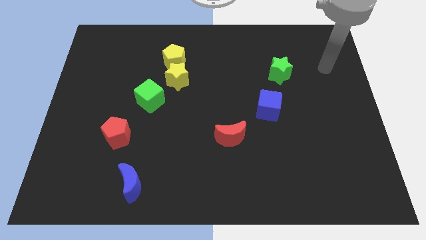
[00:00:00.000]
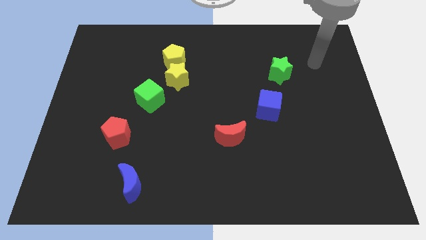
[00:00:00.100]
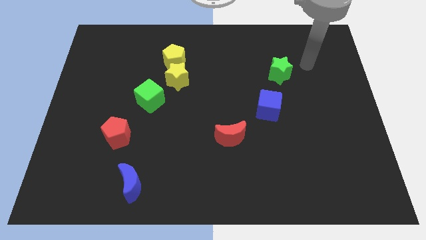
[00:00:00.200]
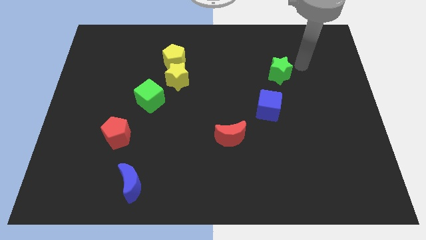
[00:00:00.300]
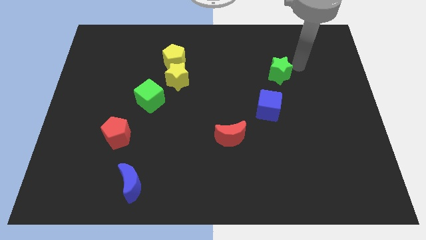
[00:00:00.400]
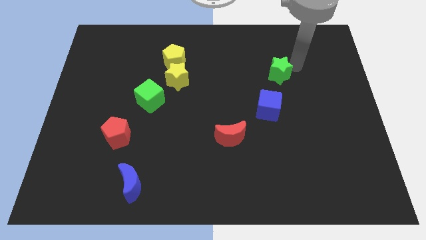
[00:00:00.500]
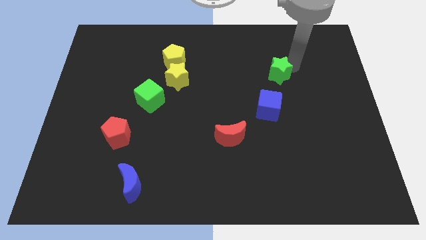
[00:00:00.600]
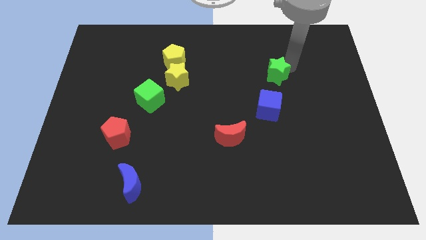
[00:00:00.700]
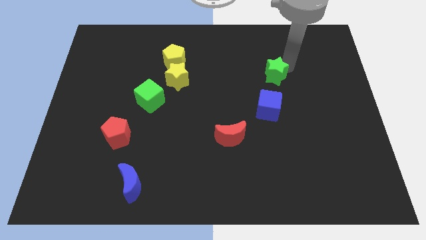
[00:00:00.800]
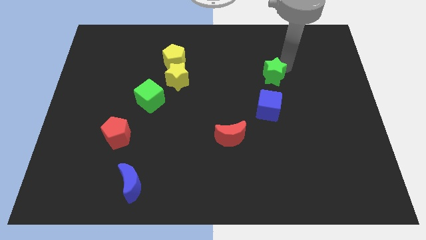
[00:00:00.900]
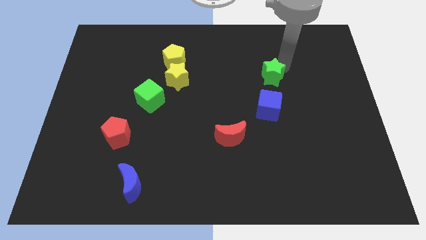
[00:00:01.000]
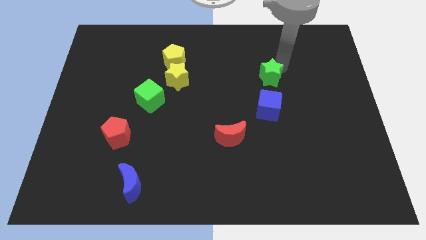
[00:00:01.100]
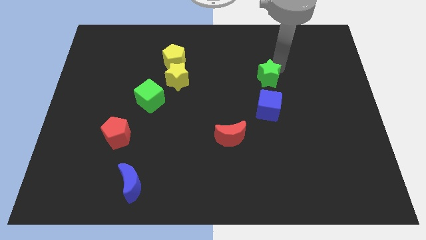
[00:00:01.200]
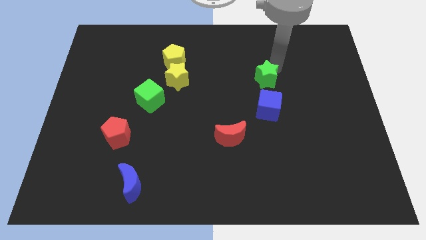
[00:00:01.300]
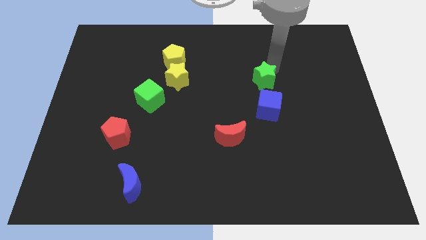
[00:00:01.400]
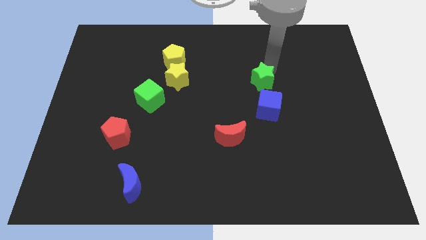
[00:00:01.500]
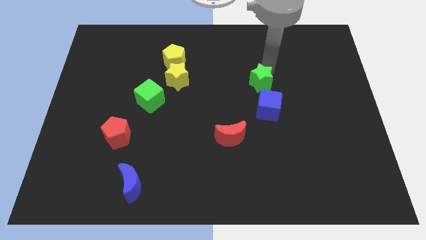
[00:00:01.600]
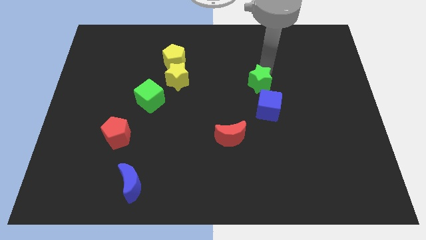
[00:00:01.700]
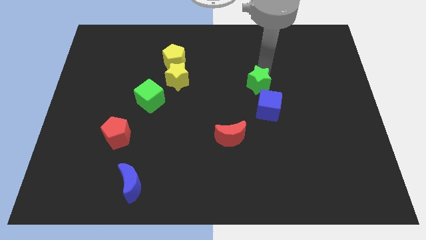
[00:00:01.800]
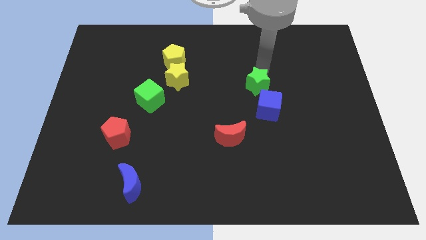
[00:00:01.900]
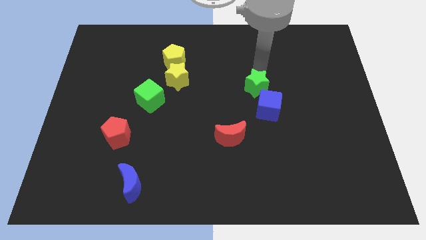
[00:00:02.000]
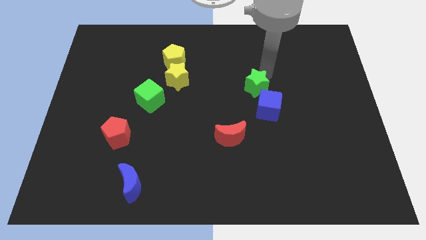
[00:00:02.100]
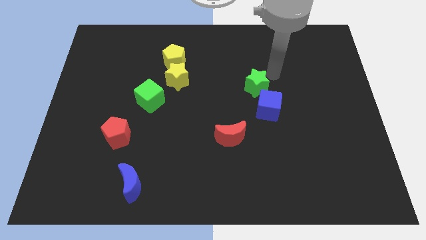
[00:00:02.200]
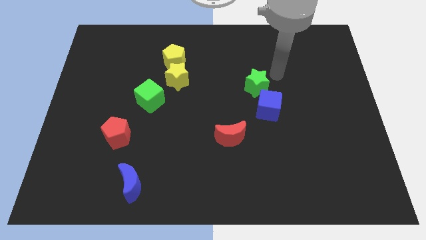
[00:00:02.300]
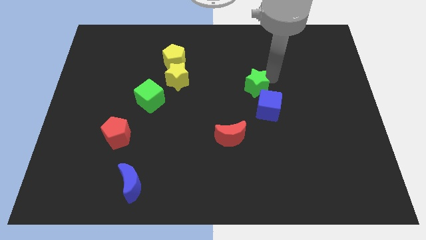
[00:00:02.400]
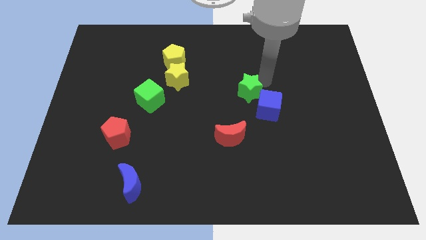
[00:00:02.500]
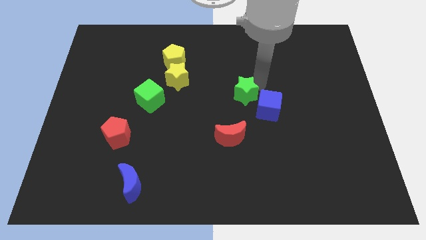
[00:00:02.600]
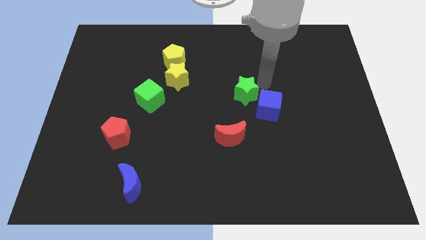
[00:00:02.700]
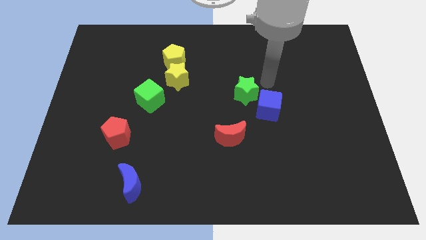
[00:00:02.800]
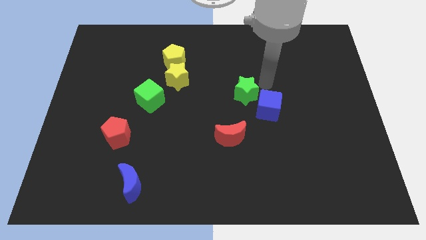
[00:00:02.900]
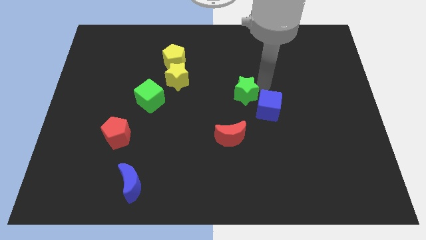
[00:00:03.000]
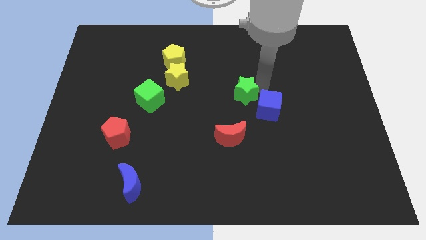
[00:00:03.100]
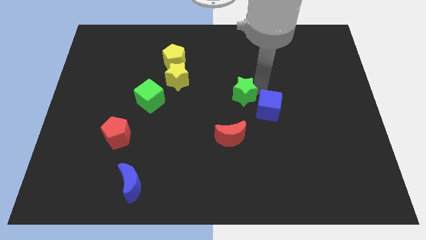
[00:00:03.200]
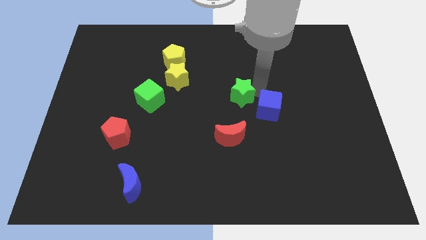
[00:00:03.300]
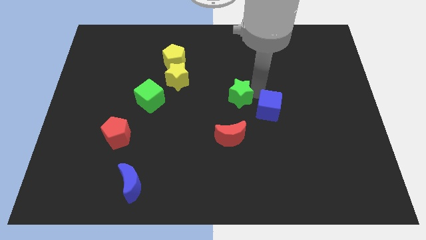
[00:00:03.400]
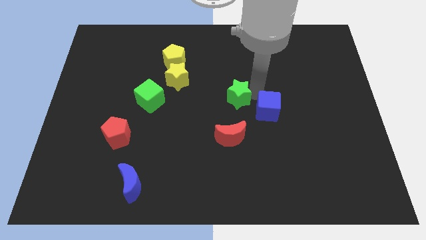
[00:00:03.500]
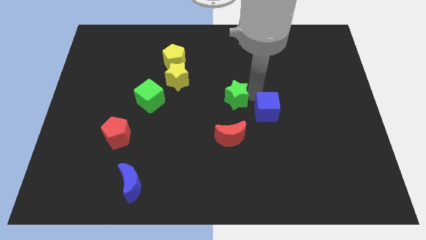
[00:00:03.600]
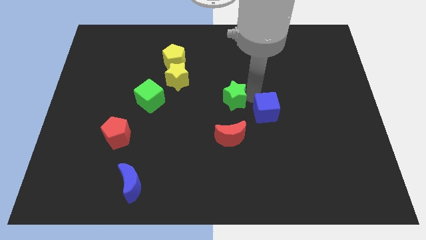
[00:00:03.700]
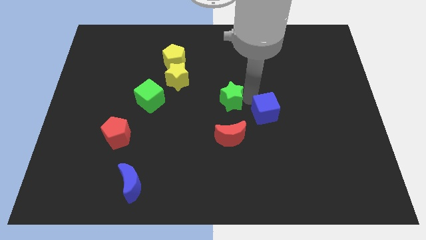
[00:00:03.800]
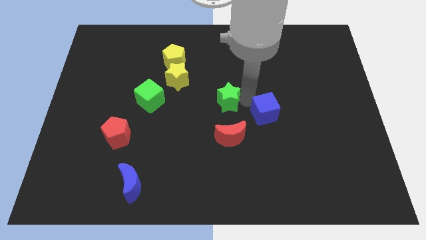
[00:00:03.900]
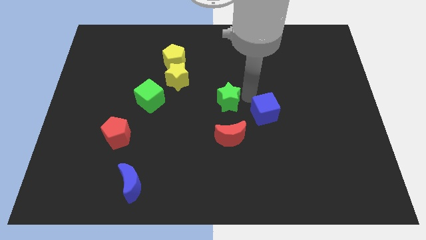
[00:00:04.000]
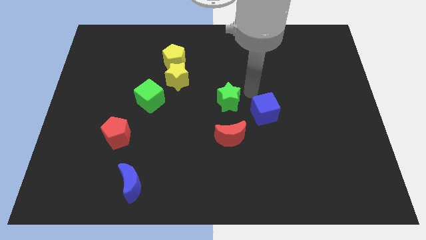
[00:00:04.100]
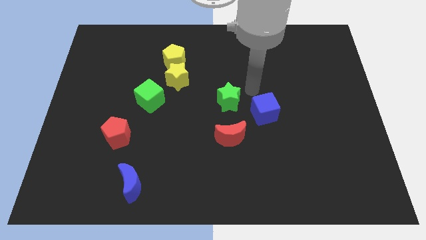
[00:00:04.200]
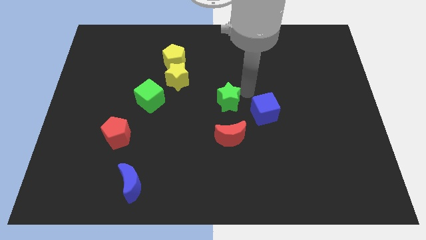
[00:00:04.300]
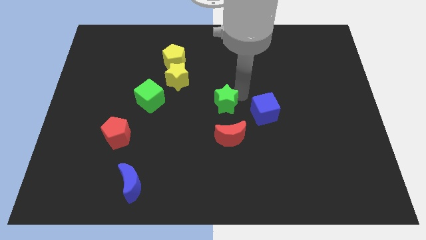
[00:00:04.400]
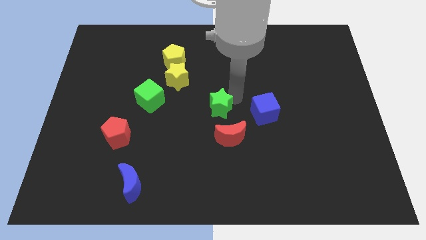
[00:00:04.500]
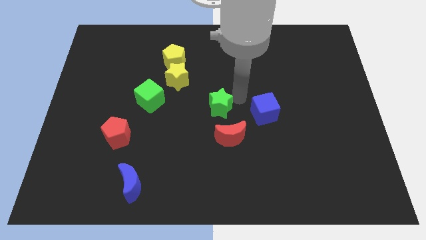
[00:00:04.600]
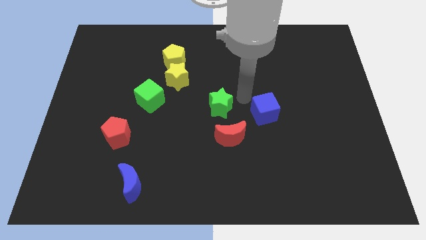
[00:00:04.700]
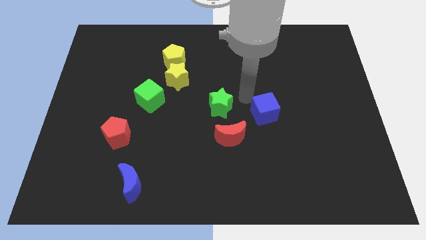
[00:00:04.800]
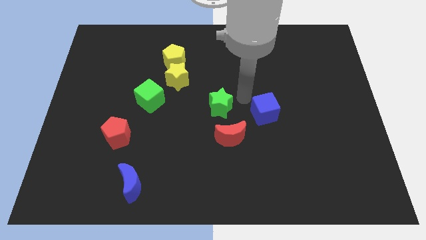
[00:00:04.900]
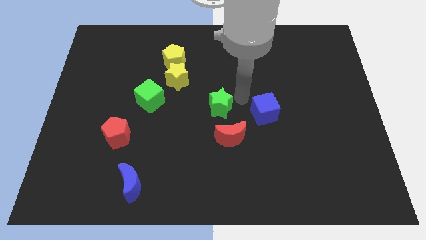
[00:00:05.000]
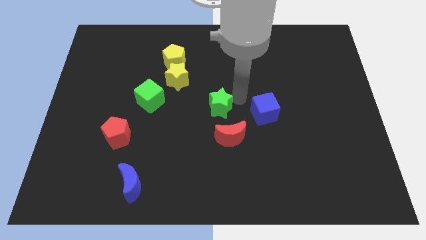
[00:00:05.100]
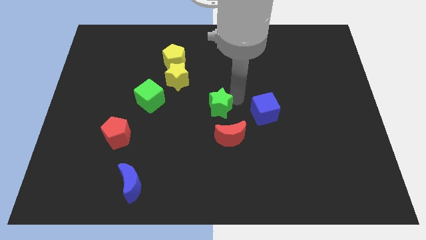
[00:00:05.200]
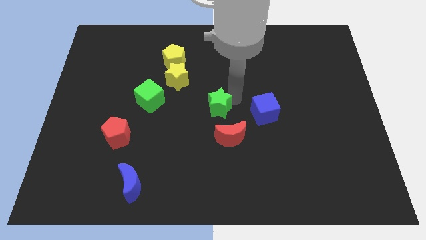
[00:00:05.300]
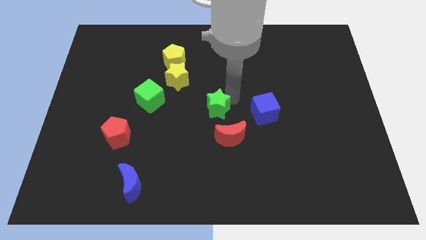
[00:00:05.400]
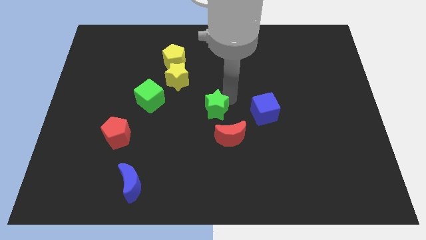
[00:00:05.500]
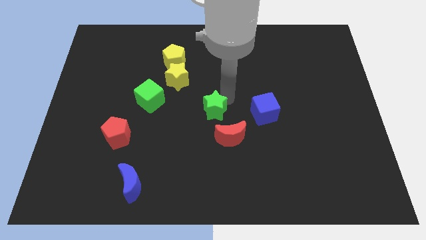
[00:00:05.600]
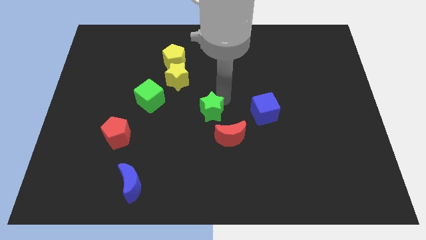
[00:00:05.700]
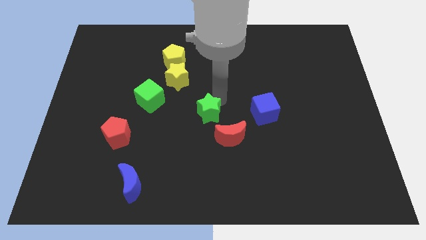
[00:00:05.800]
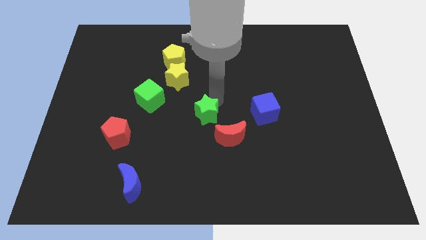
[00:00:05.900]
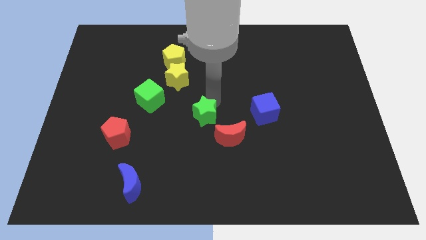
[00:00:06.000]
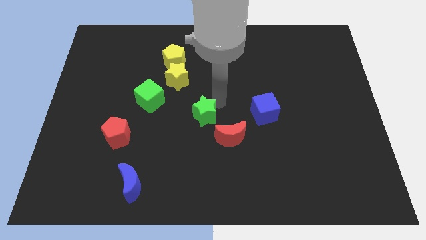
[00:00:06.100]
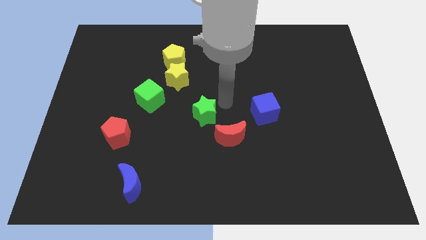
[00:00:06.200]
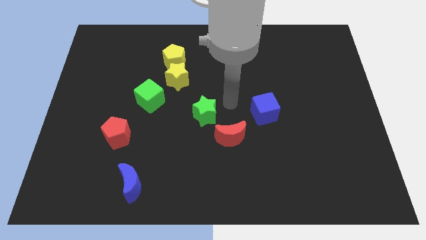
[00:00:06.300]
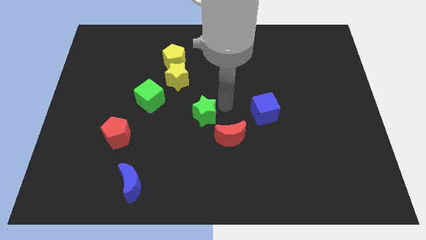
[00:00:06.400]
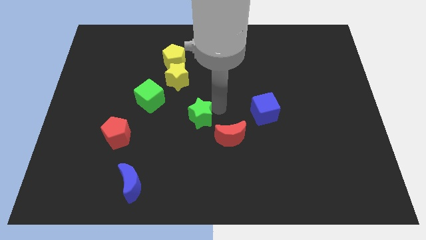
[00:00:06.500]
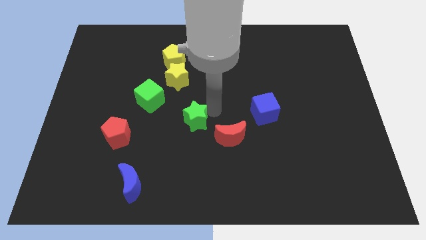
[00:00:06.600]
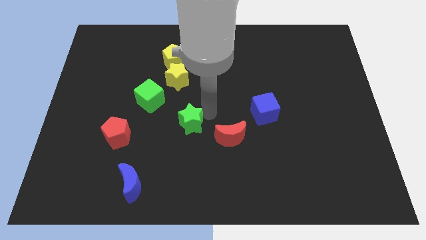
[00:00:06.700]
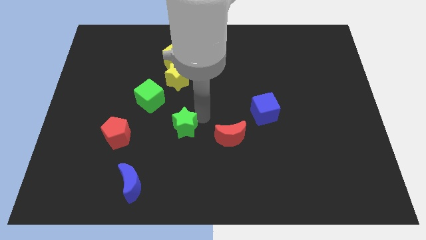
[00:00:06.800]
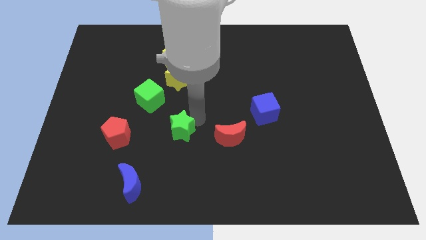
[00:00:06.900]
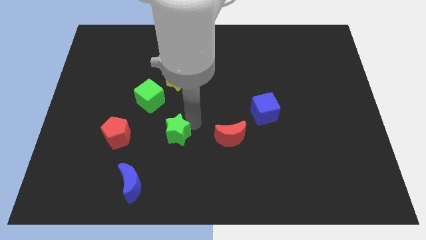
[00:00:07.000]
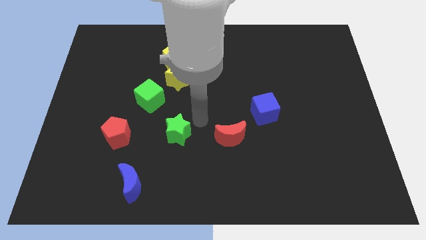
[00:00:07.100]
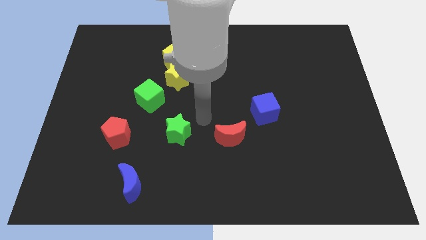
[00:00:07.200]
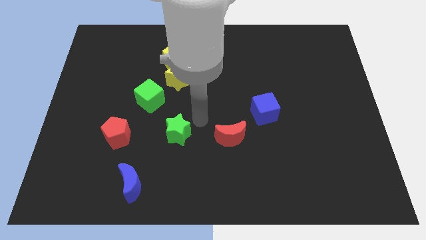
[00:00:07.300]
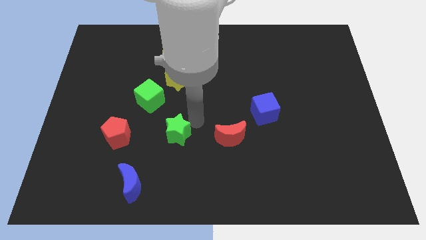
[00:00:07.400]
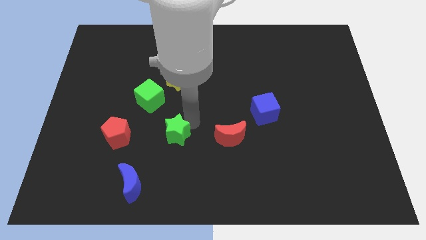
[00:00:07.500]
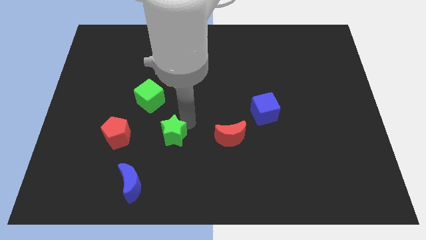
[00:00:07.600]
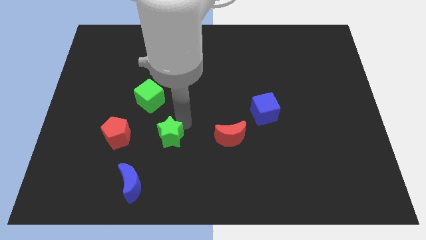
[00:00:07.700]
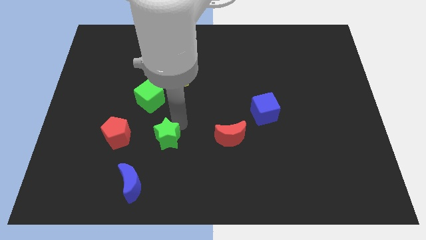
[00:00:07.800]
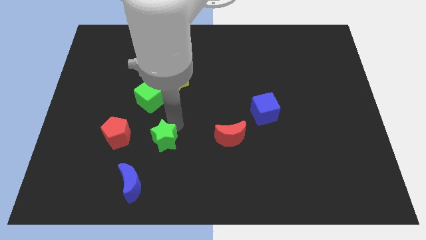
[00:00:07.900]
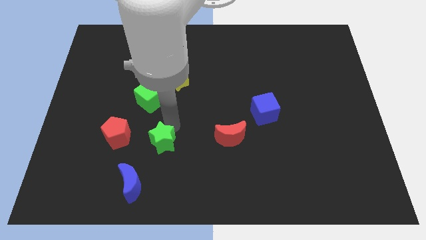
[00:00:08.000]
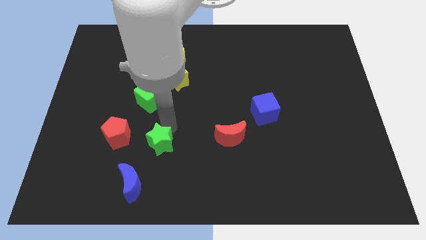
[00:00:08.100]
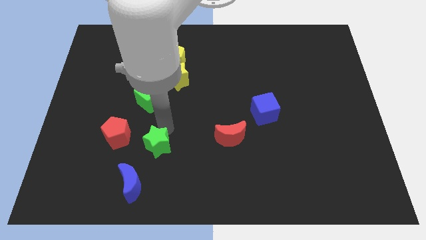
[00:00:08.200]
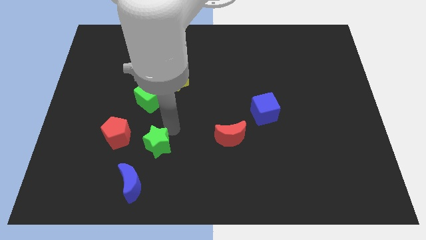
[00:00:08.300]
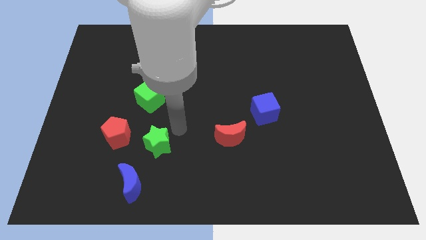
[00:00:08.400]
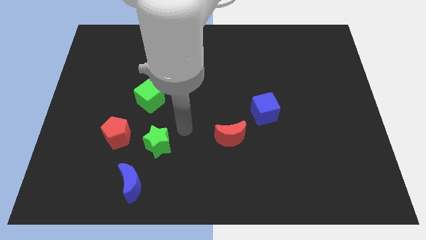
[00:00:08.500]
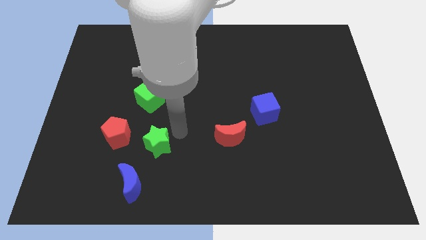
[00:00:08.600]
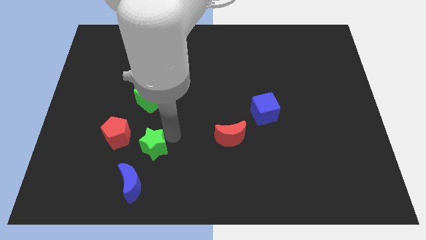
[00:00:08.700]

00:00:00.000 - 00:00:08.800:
push the green star diagonally down and to the right of the red pentagon
